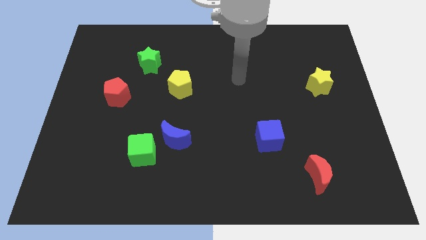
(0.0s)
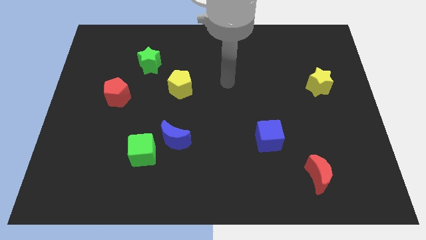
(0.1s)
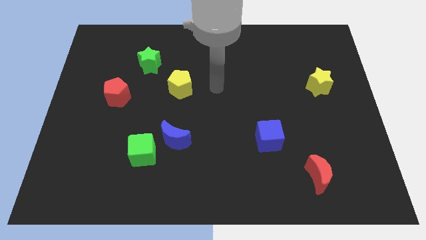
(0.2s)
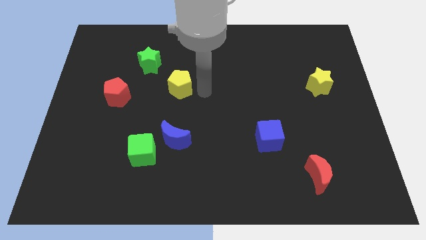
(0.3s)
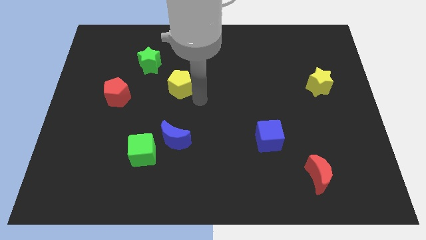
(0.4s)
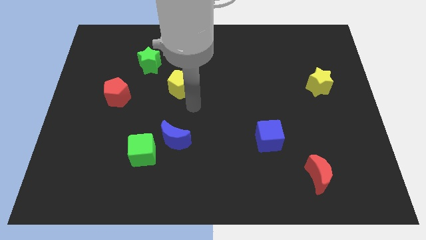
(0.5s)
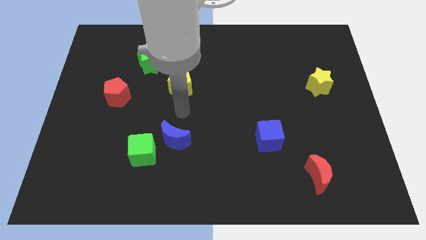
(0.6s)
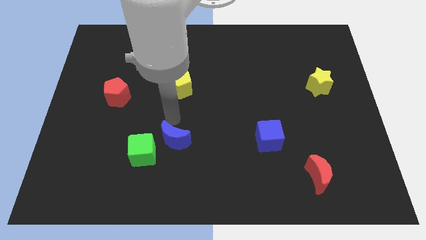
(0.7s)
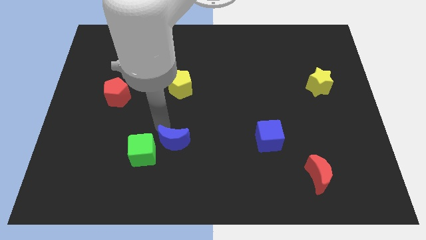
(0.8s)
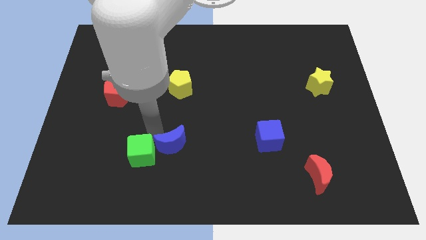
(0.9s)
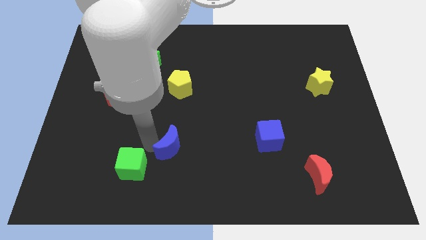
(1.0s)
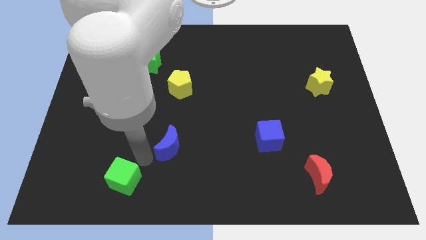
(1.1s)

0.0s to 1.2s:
pull the blue moon apart from the green cube

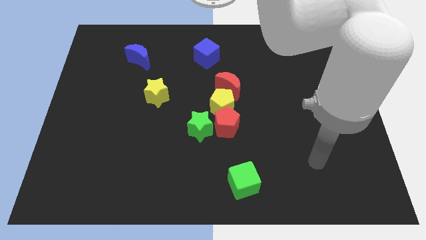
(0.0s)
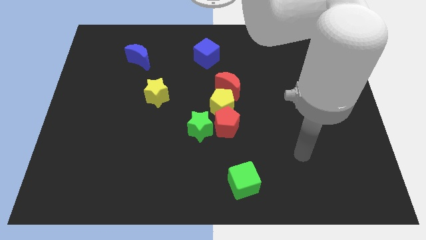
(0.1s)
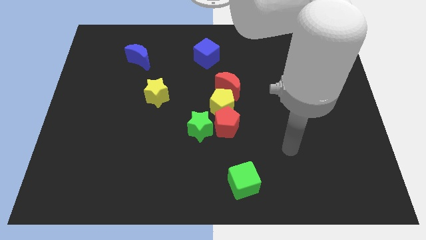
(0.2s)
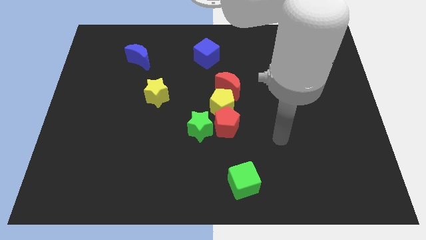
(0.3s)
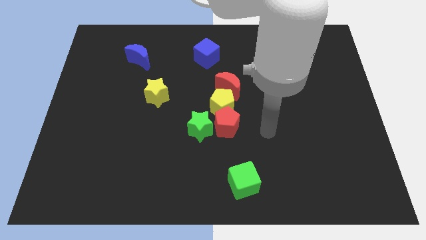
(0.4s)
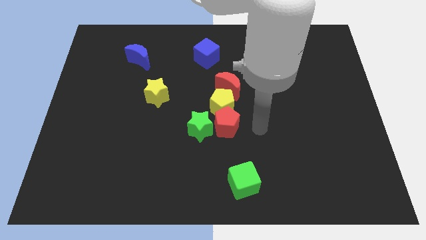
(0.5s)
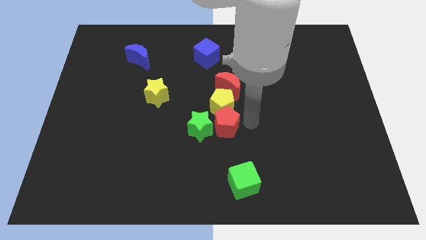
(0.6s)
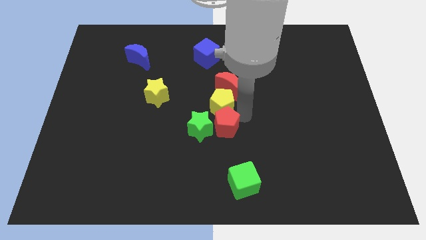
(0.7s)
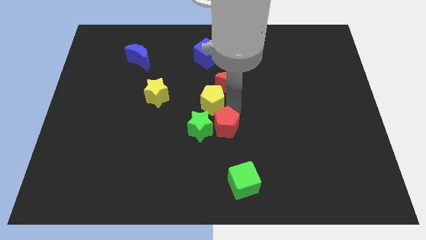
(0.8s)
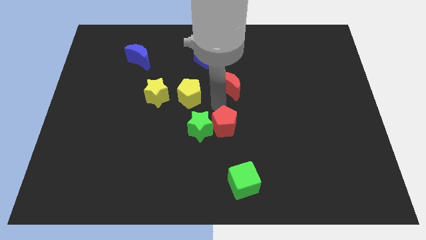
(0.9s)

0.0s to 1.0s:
move the red moon away from the yellow pentagon

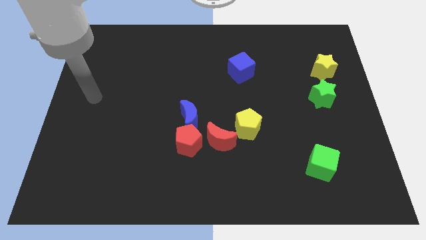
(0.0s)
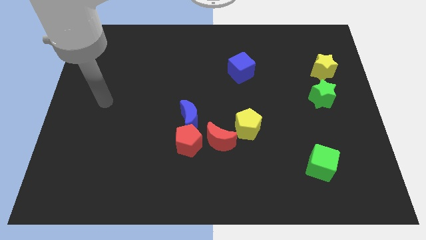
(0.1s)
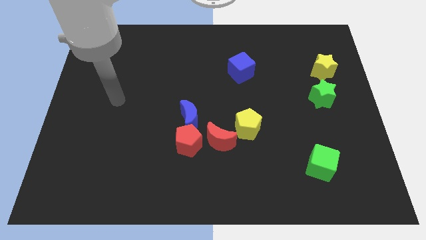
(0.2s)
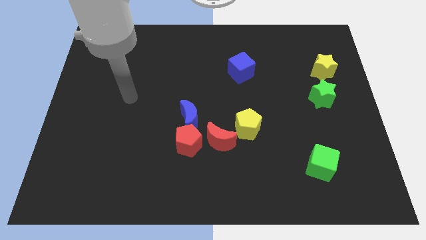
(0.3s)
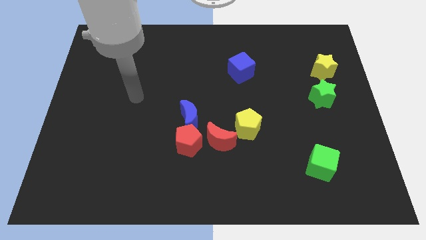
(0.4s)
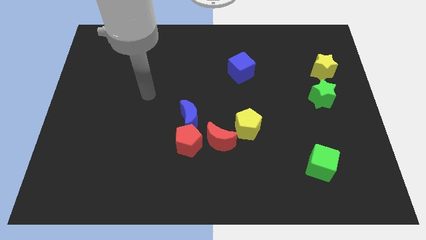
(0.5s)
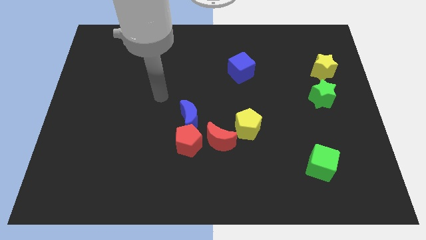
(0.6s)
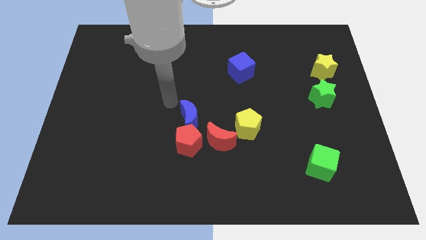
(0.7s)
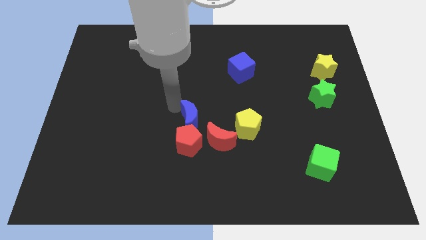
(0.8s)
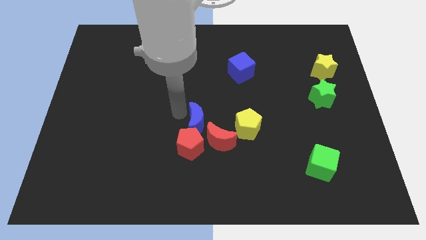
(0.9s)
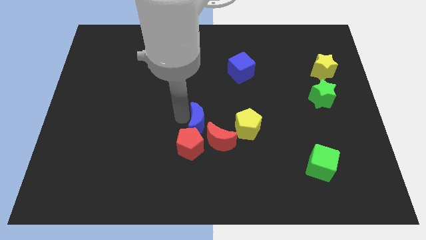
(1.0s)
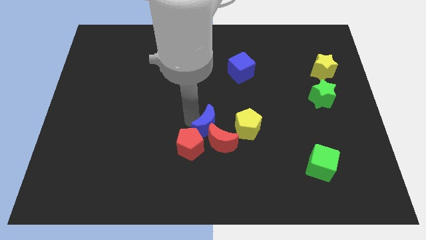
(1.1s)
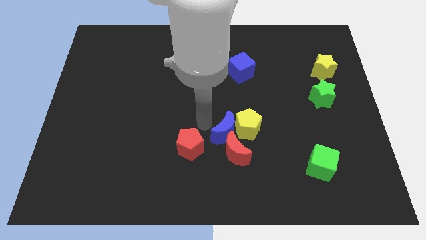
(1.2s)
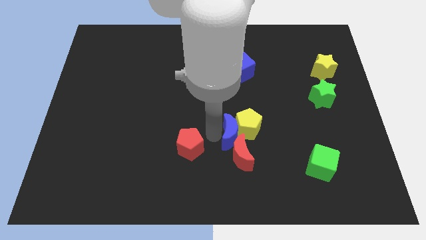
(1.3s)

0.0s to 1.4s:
pull the red pentagon apart from the blue moon and red moon

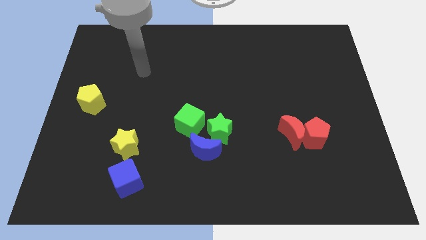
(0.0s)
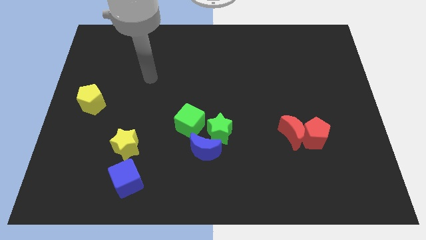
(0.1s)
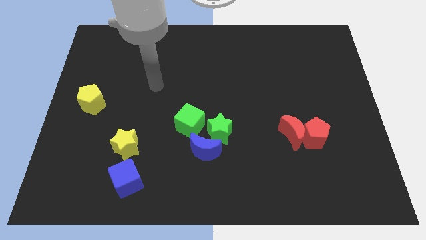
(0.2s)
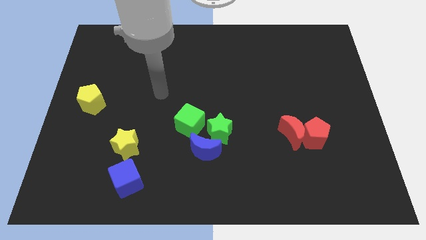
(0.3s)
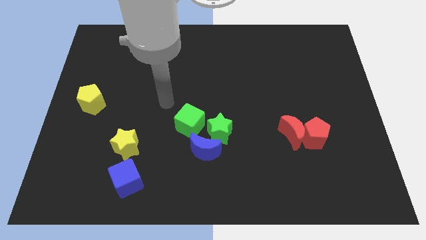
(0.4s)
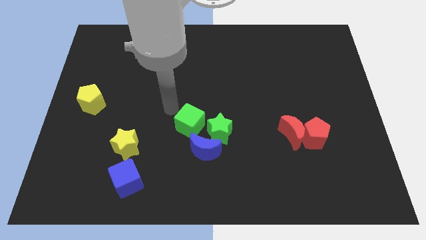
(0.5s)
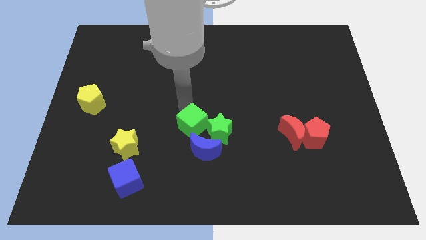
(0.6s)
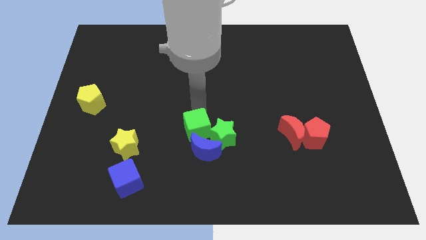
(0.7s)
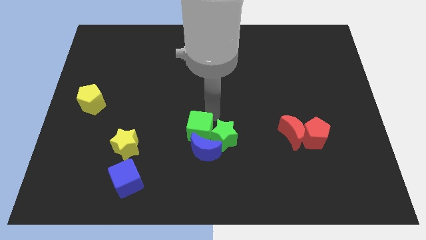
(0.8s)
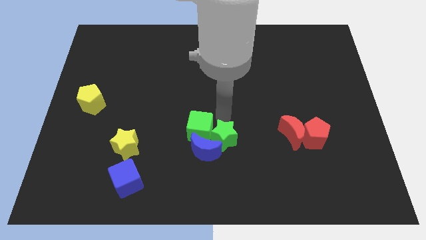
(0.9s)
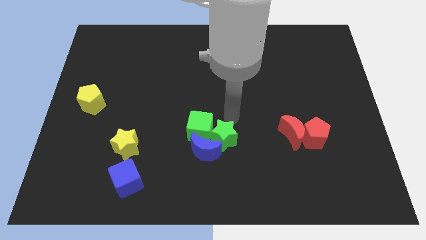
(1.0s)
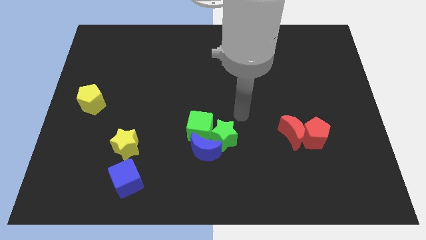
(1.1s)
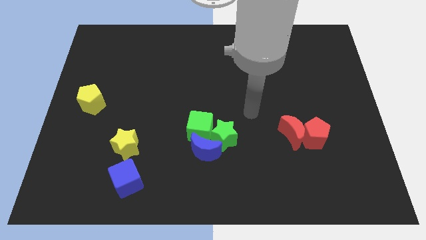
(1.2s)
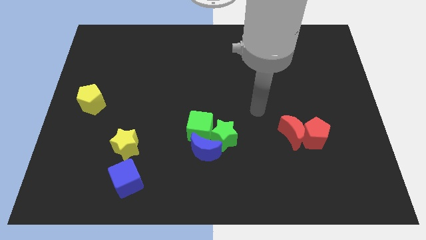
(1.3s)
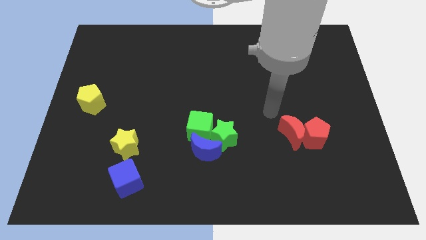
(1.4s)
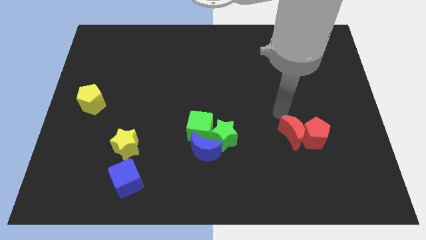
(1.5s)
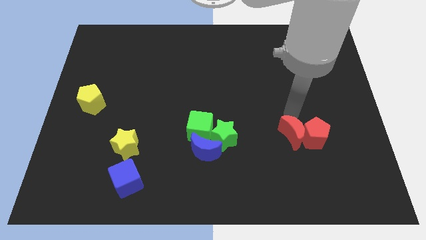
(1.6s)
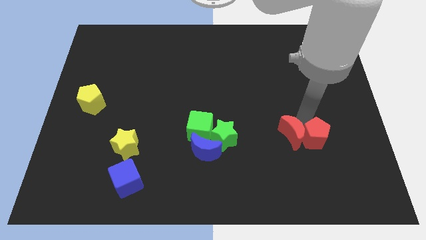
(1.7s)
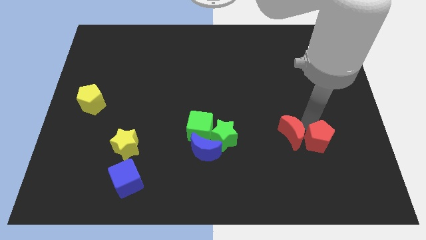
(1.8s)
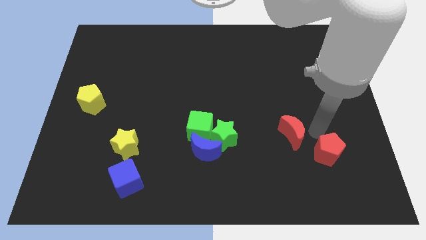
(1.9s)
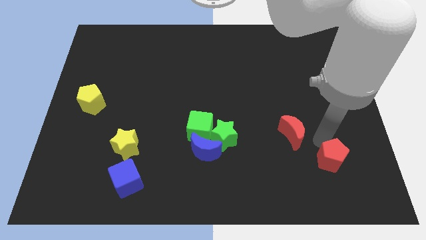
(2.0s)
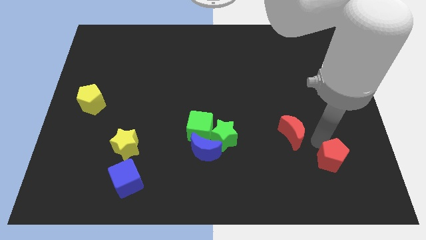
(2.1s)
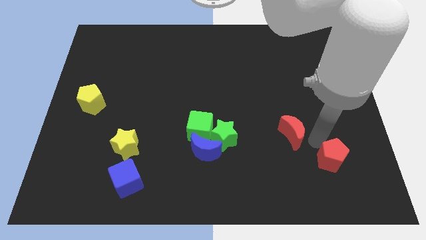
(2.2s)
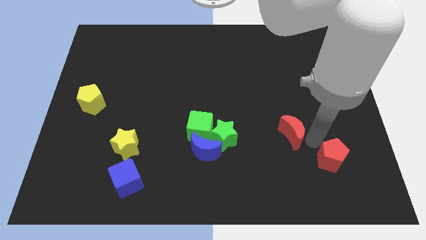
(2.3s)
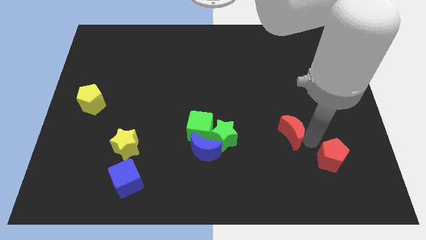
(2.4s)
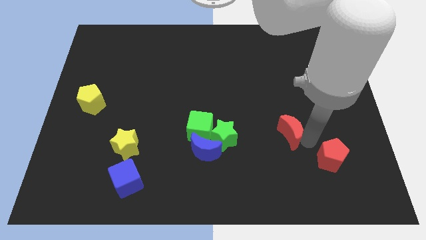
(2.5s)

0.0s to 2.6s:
move the red moon away from the red pentagon

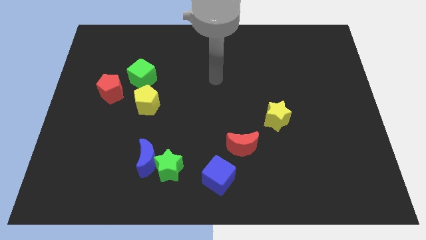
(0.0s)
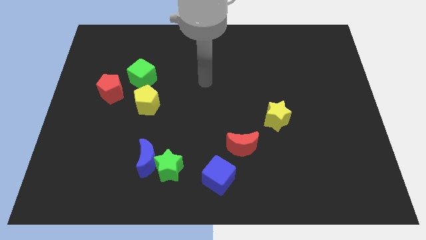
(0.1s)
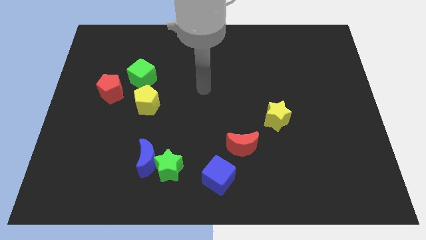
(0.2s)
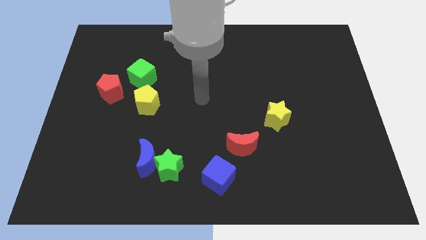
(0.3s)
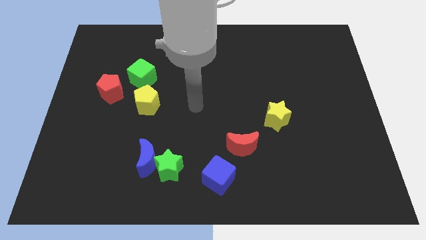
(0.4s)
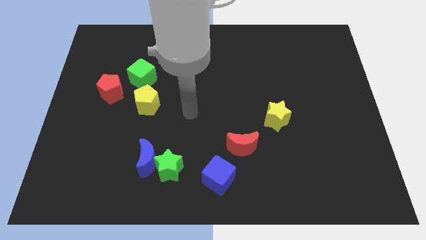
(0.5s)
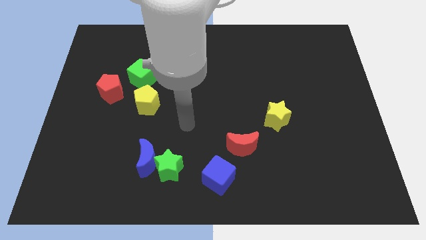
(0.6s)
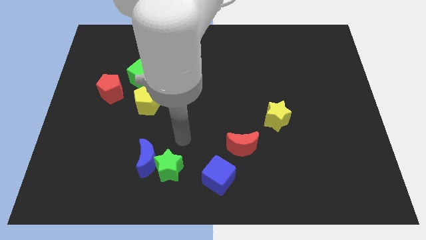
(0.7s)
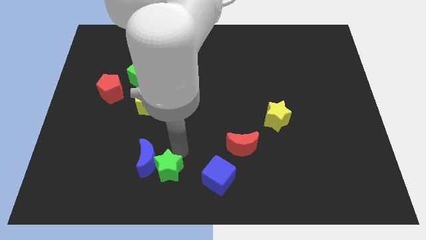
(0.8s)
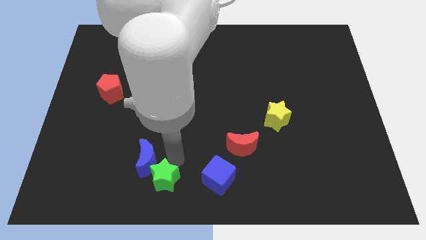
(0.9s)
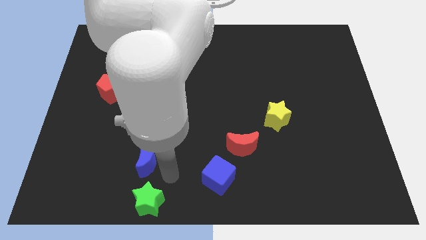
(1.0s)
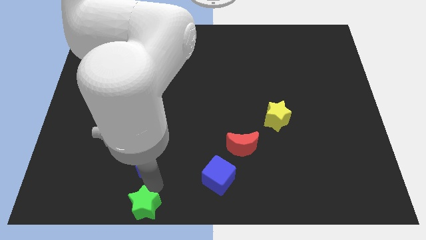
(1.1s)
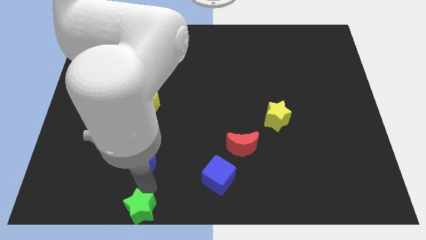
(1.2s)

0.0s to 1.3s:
pull the blue moon apart from the green star

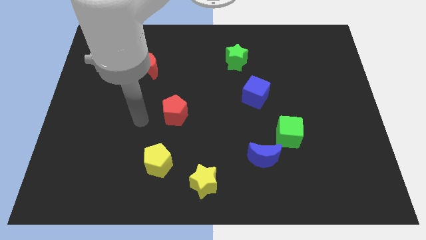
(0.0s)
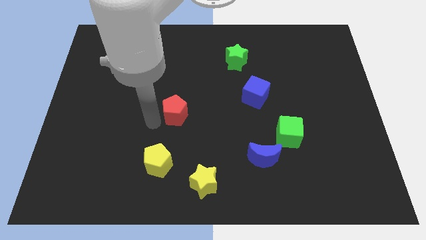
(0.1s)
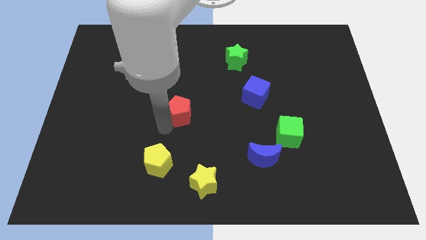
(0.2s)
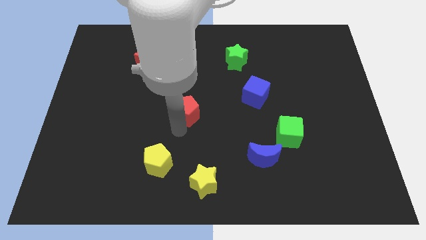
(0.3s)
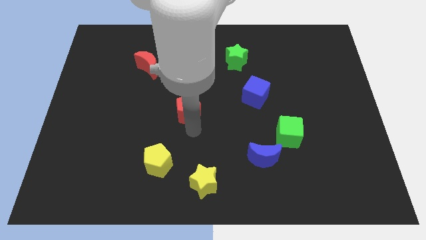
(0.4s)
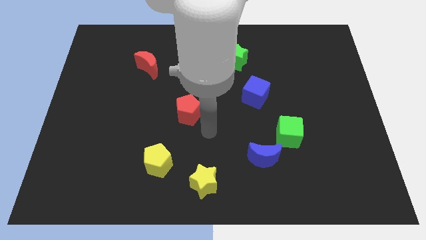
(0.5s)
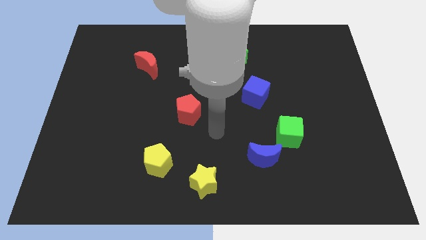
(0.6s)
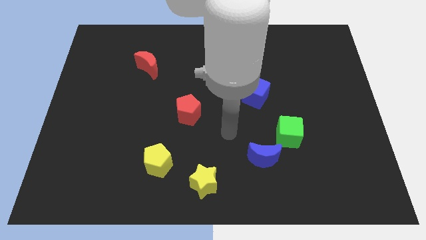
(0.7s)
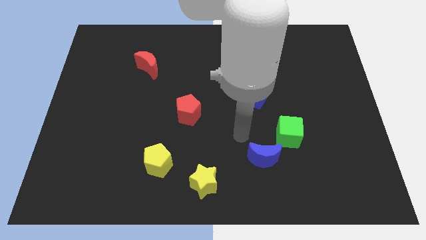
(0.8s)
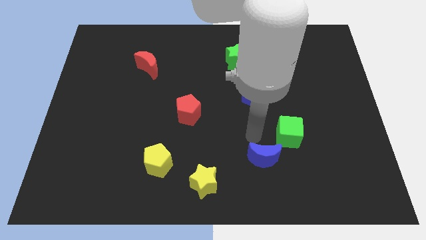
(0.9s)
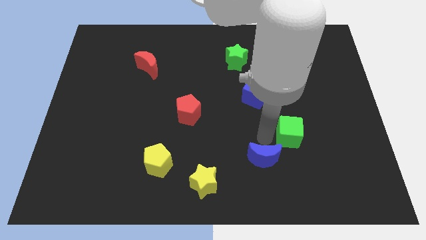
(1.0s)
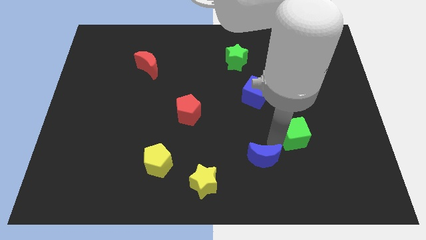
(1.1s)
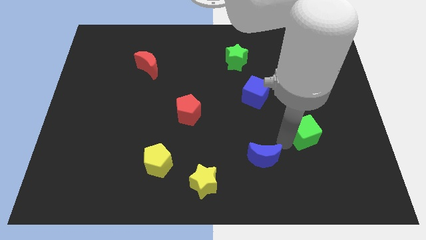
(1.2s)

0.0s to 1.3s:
separate the blue moon from the green cube

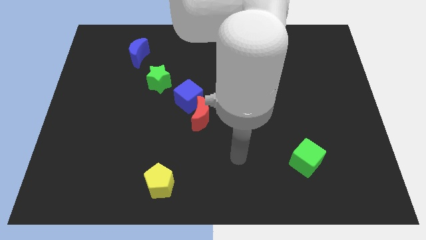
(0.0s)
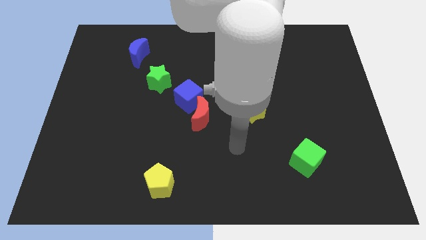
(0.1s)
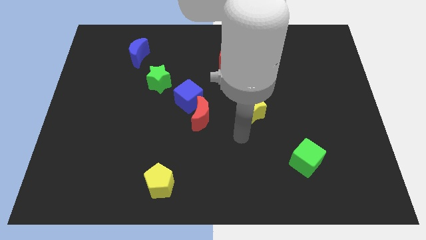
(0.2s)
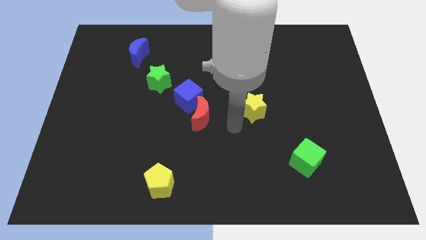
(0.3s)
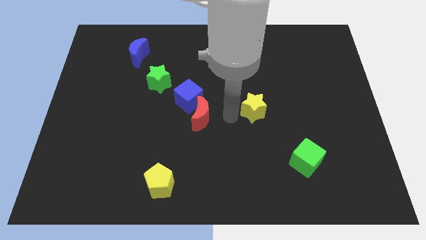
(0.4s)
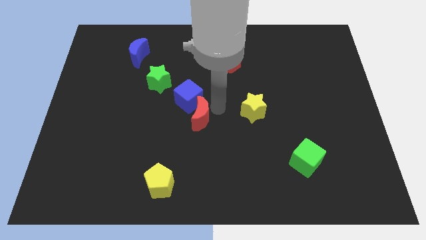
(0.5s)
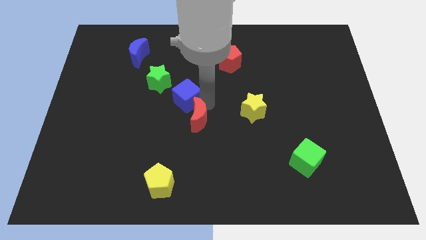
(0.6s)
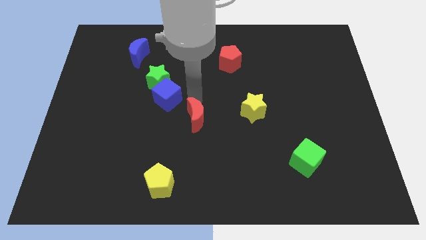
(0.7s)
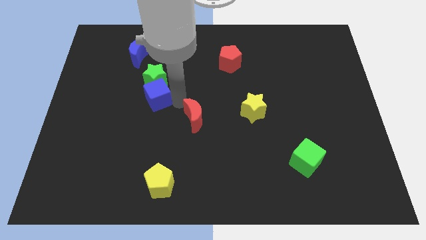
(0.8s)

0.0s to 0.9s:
pull the red moon apart from the blue cube
